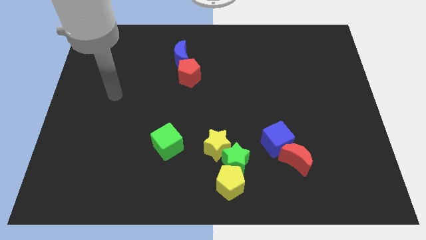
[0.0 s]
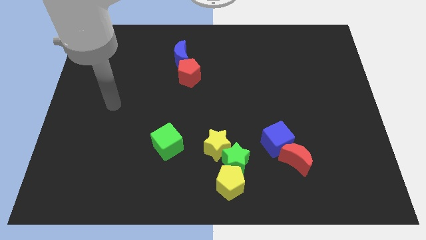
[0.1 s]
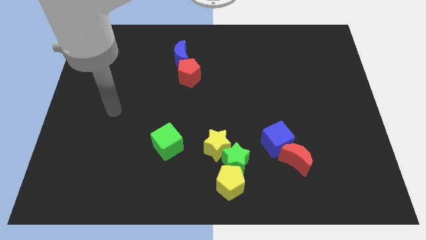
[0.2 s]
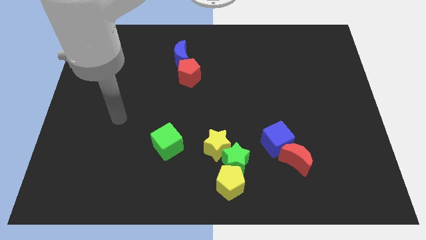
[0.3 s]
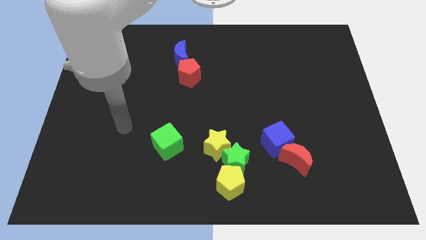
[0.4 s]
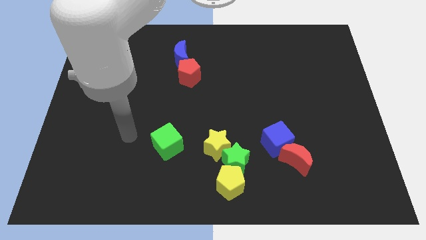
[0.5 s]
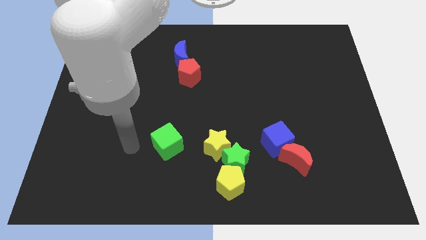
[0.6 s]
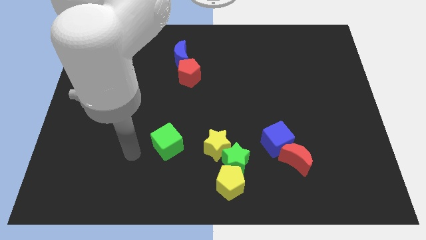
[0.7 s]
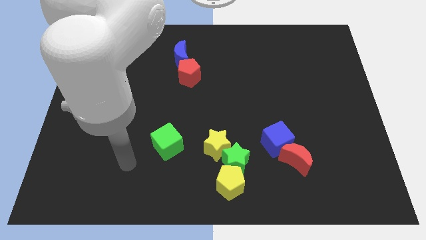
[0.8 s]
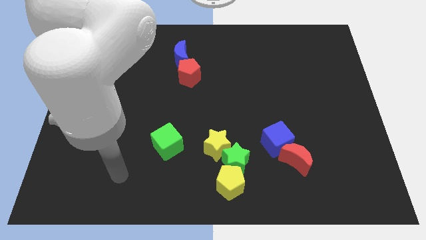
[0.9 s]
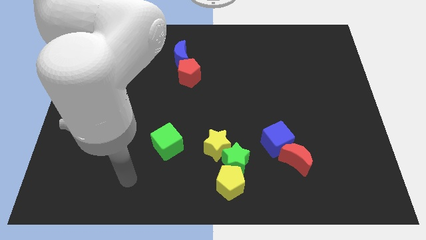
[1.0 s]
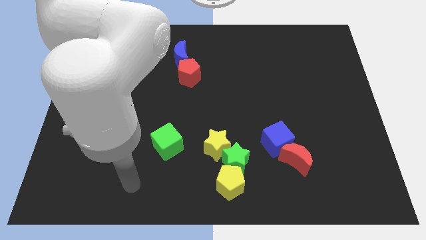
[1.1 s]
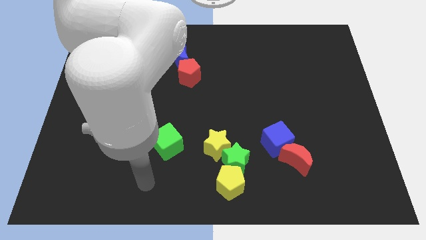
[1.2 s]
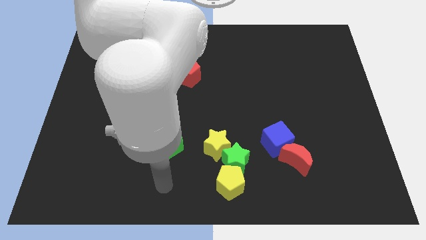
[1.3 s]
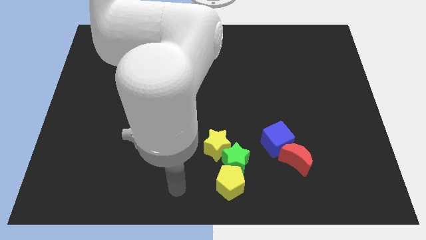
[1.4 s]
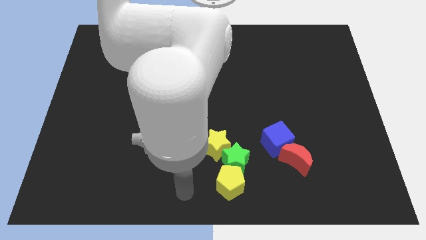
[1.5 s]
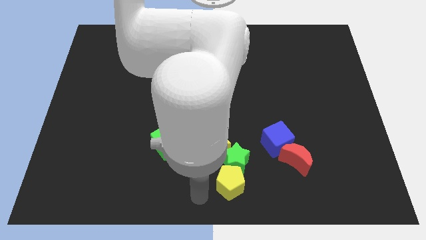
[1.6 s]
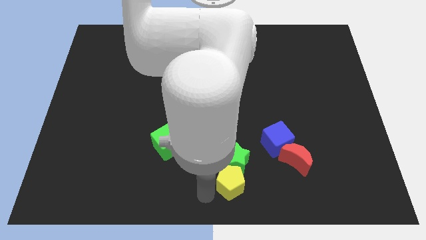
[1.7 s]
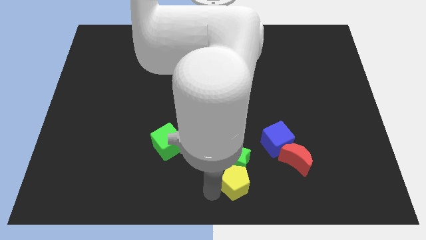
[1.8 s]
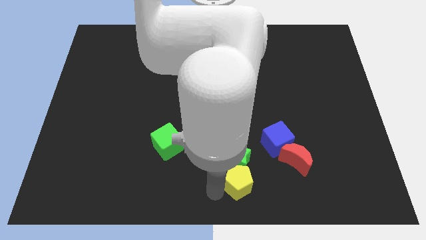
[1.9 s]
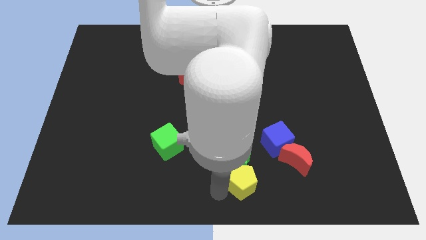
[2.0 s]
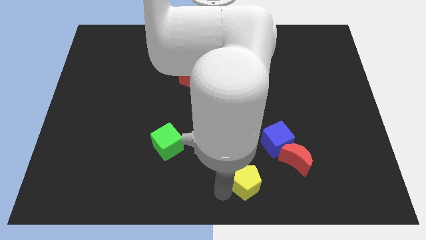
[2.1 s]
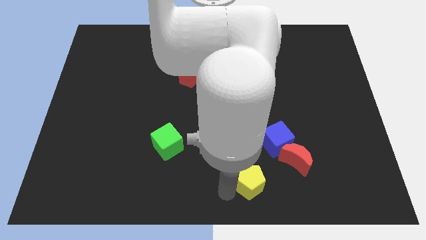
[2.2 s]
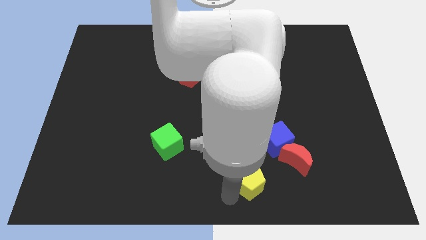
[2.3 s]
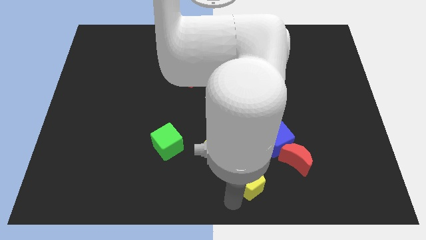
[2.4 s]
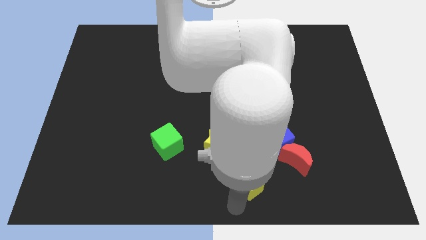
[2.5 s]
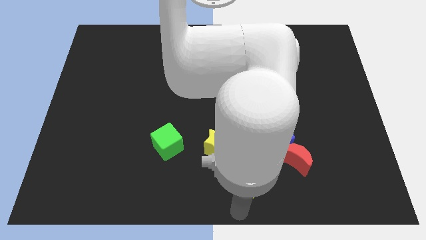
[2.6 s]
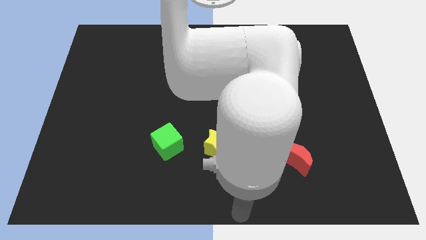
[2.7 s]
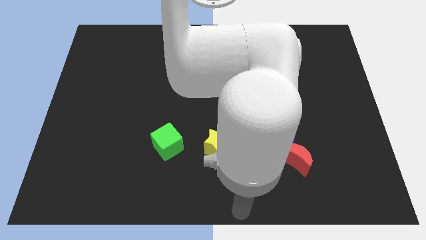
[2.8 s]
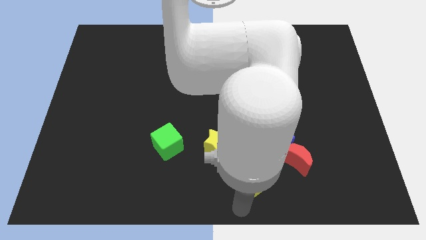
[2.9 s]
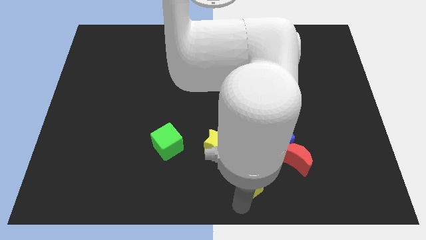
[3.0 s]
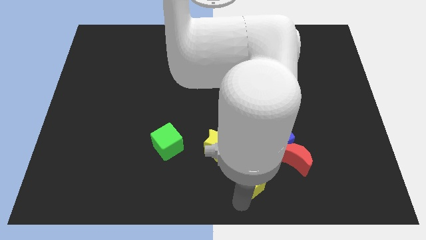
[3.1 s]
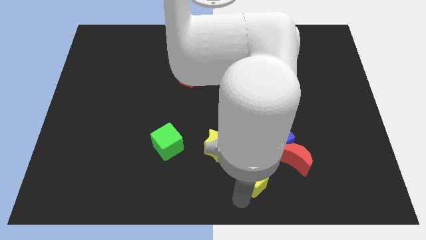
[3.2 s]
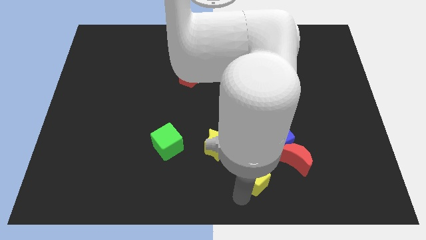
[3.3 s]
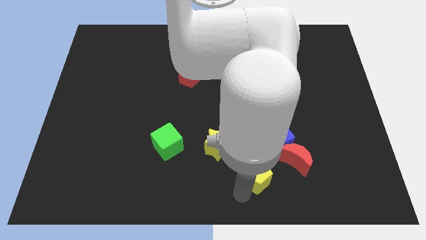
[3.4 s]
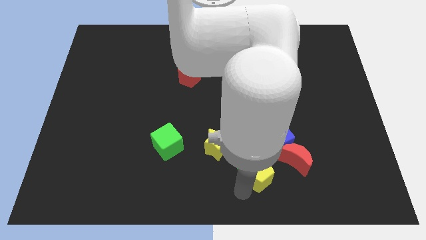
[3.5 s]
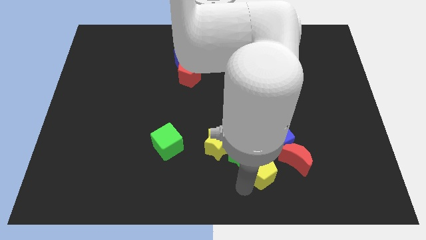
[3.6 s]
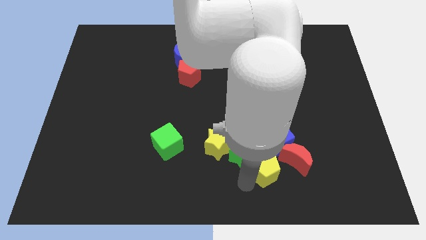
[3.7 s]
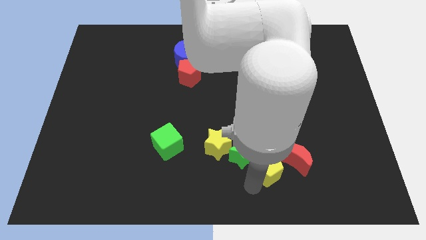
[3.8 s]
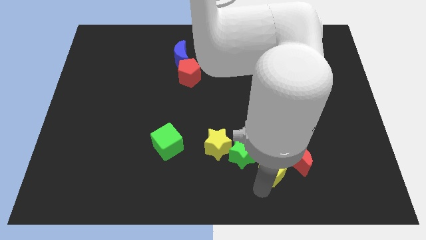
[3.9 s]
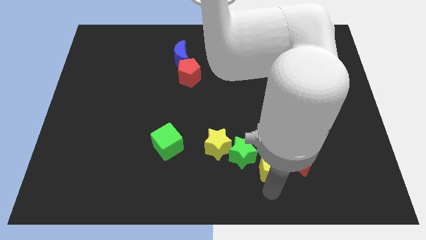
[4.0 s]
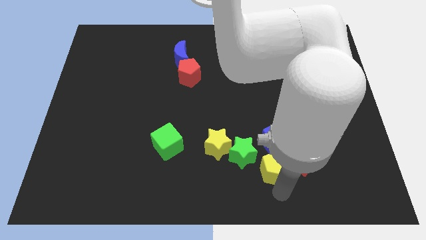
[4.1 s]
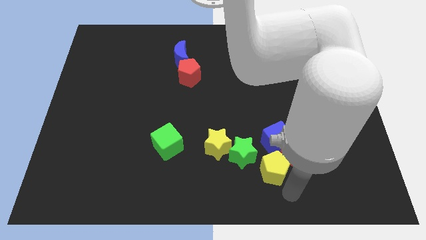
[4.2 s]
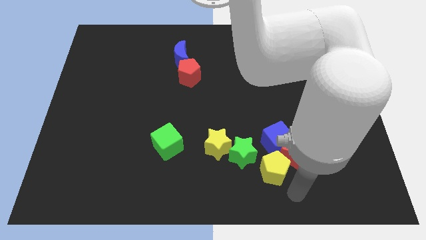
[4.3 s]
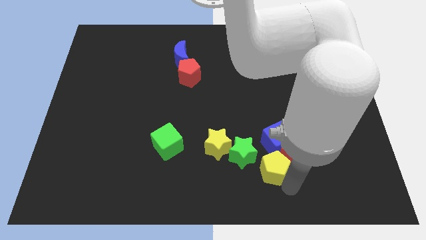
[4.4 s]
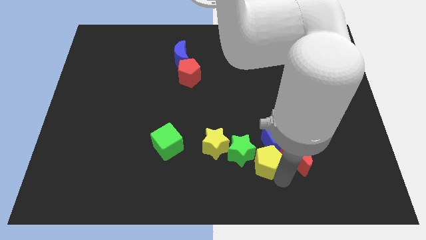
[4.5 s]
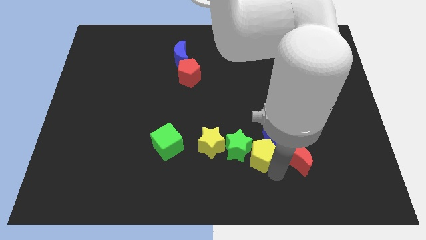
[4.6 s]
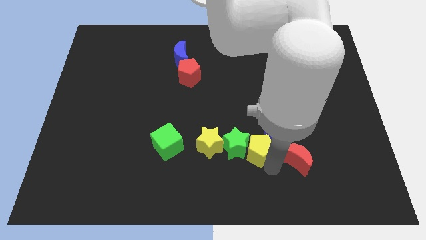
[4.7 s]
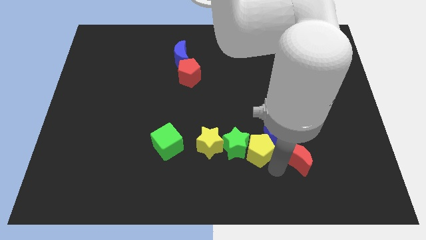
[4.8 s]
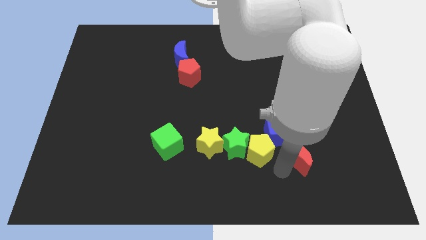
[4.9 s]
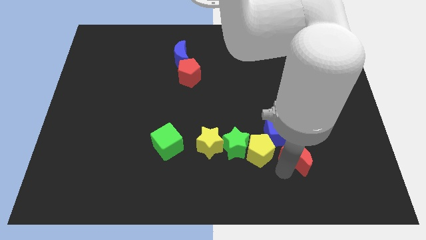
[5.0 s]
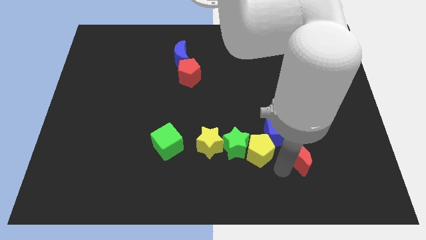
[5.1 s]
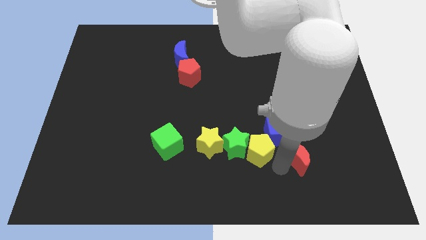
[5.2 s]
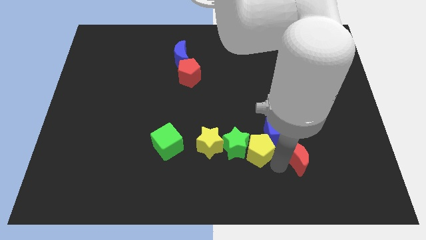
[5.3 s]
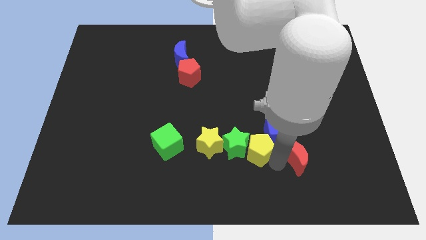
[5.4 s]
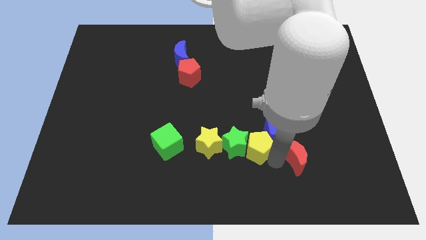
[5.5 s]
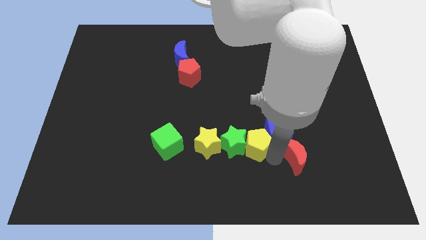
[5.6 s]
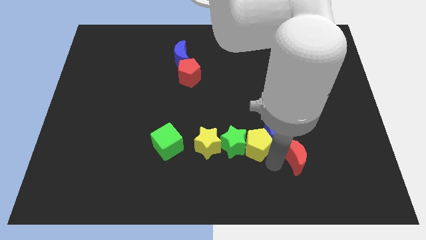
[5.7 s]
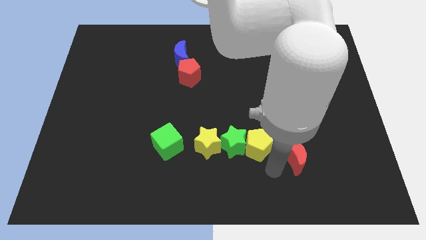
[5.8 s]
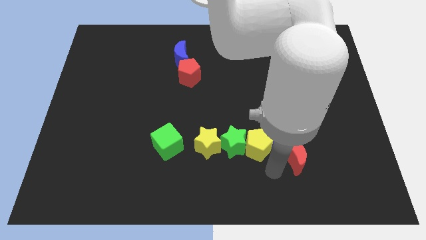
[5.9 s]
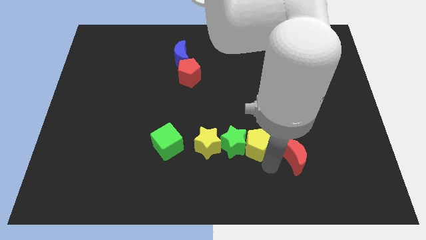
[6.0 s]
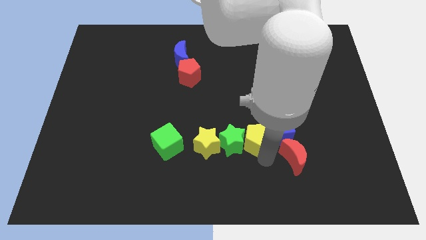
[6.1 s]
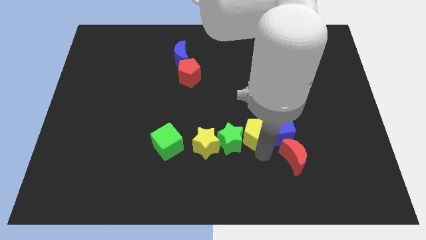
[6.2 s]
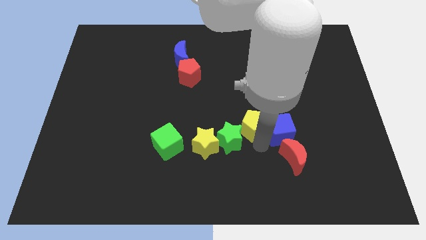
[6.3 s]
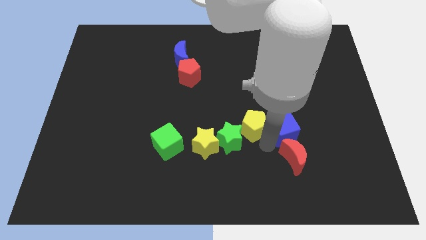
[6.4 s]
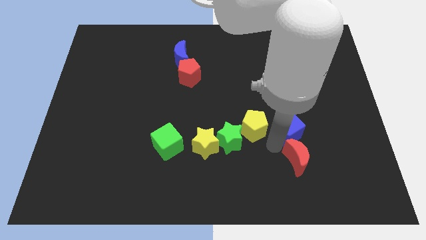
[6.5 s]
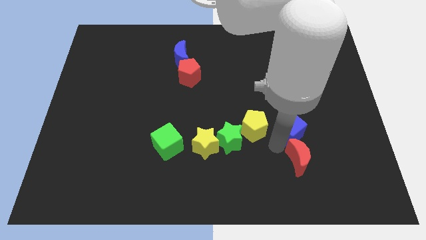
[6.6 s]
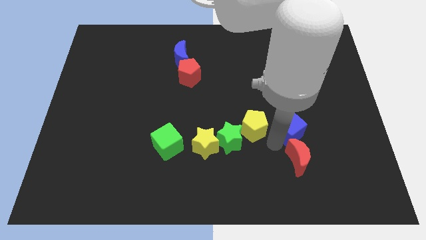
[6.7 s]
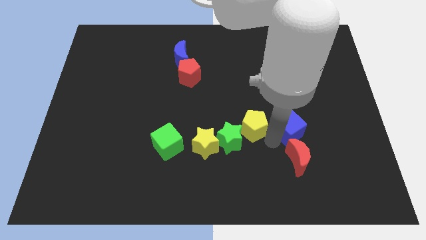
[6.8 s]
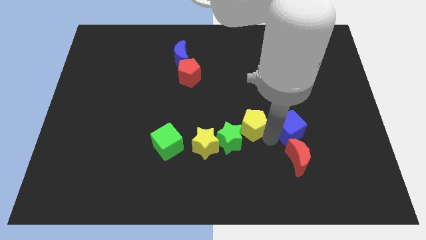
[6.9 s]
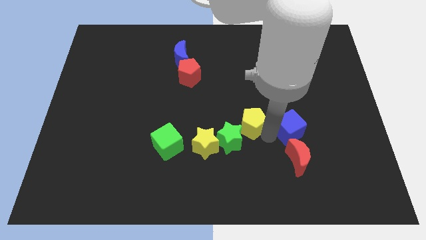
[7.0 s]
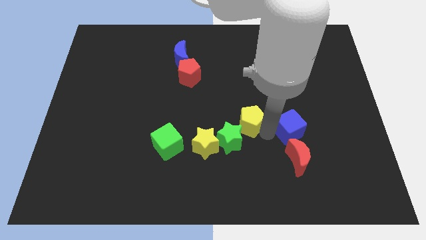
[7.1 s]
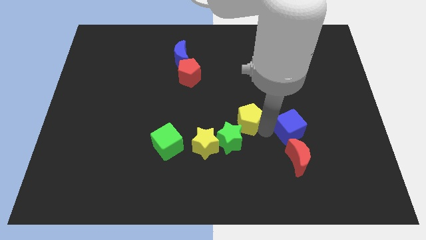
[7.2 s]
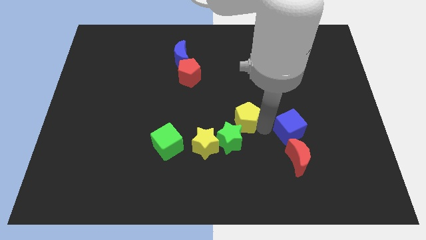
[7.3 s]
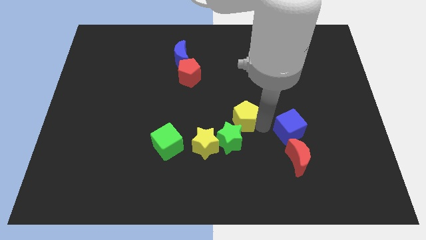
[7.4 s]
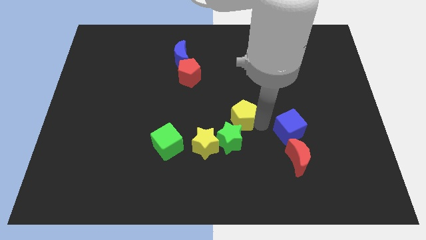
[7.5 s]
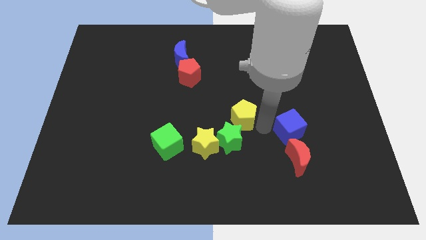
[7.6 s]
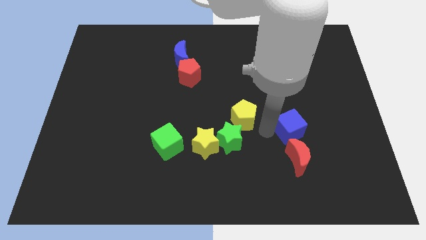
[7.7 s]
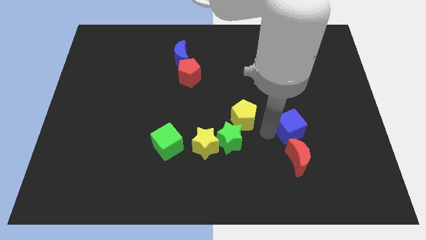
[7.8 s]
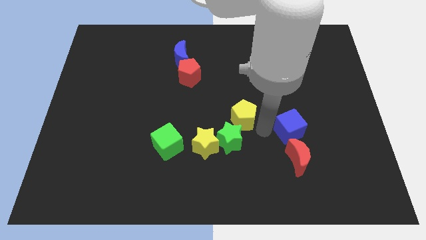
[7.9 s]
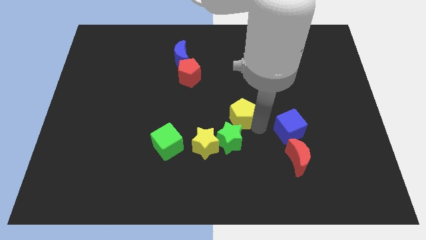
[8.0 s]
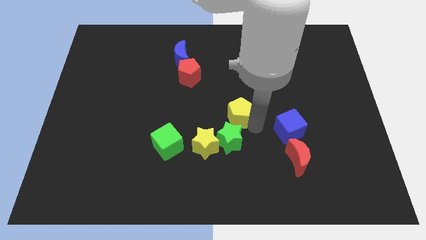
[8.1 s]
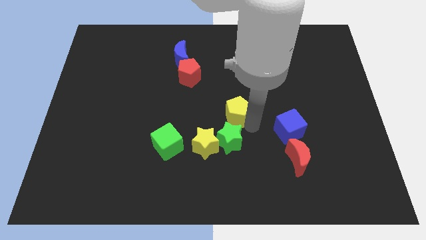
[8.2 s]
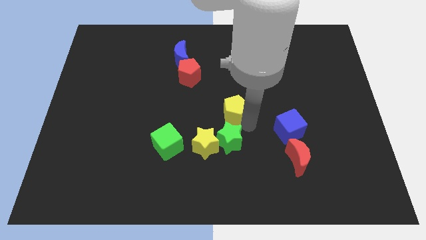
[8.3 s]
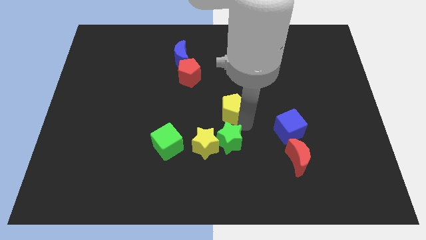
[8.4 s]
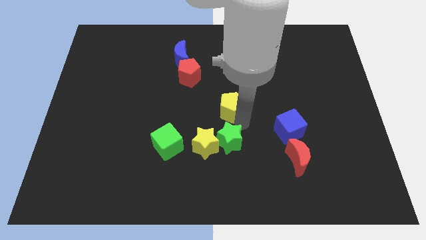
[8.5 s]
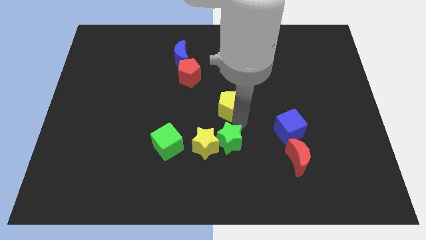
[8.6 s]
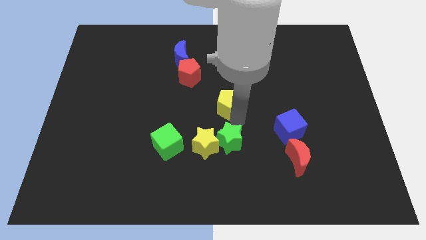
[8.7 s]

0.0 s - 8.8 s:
move the yellow pentagon upwards
